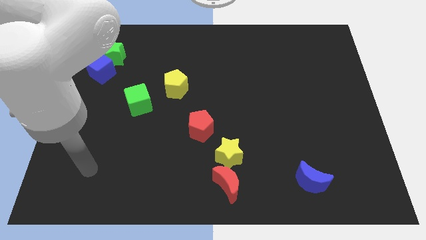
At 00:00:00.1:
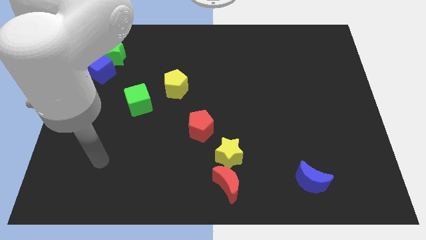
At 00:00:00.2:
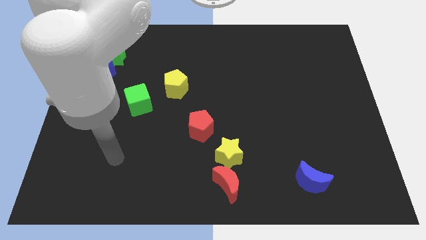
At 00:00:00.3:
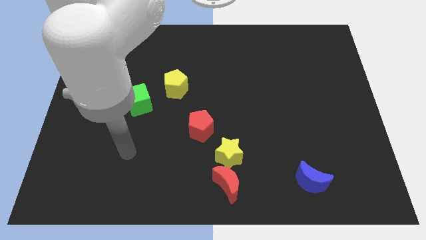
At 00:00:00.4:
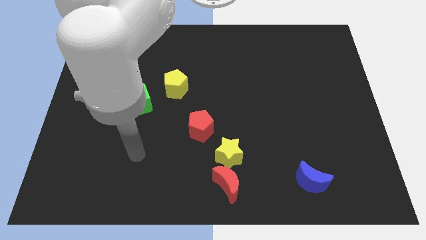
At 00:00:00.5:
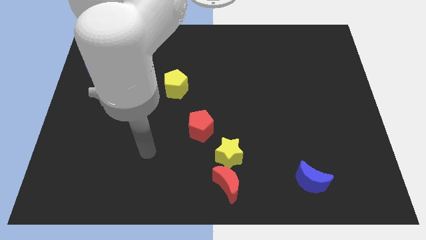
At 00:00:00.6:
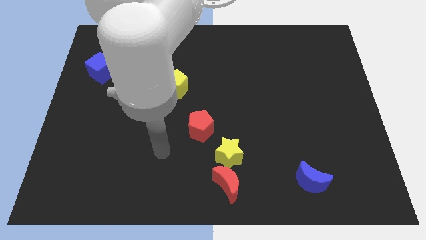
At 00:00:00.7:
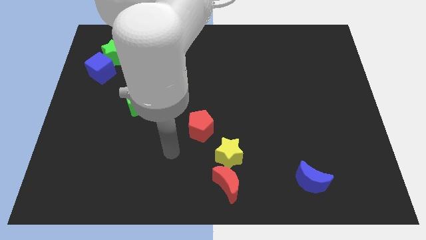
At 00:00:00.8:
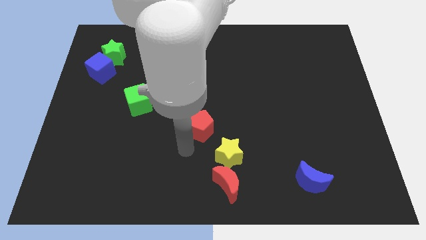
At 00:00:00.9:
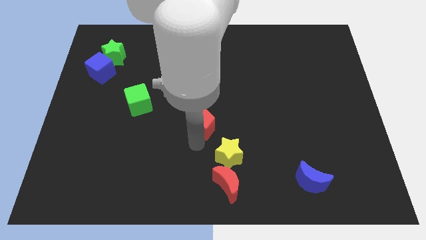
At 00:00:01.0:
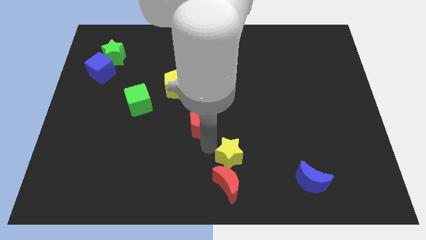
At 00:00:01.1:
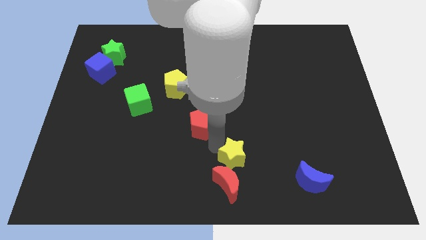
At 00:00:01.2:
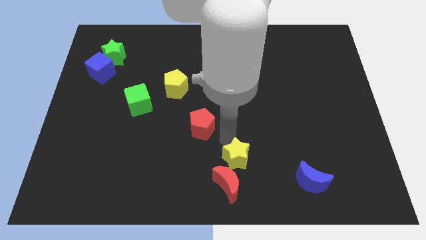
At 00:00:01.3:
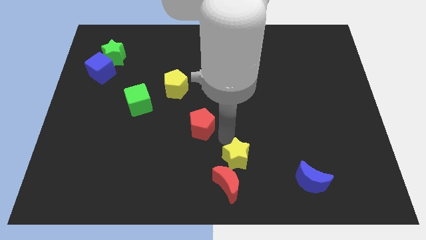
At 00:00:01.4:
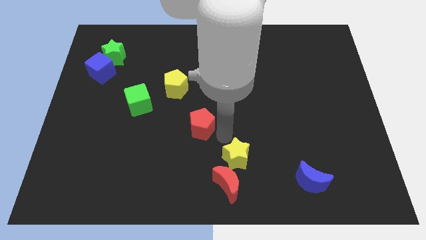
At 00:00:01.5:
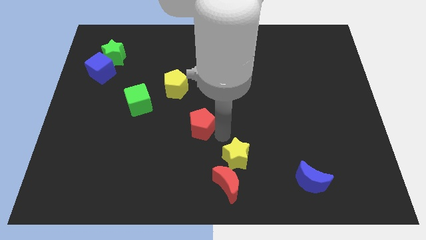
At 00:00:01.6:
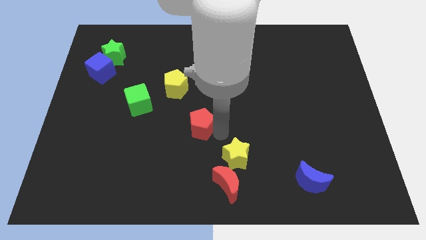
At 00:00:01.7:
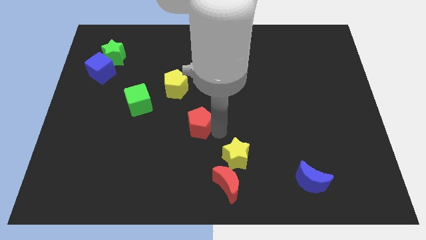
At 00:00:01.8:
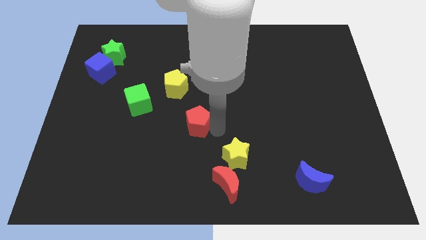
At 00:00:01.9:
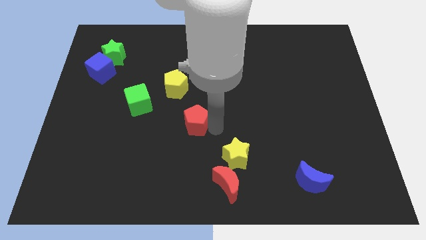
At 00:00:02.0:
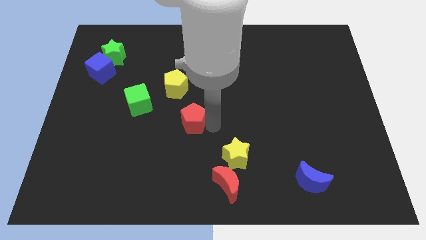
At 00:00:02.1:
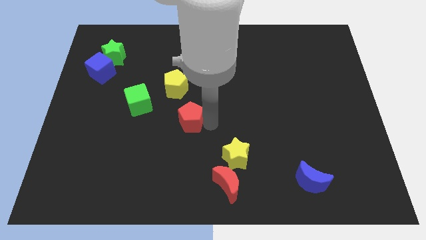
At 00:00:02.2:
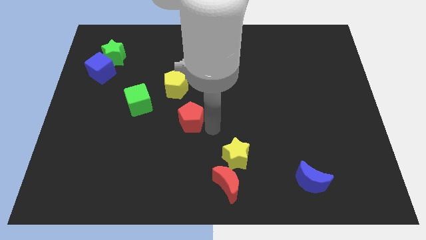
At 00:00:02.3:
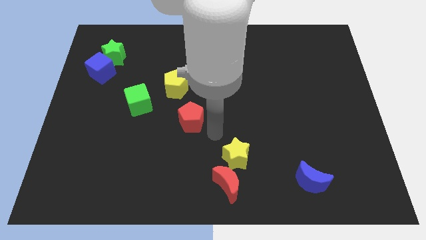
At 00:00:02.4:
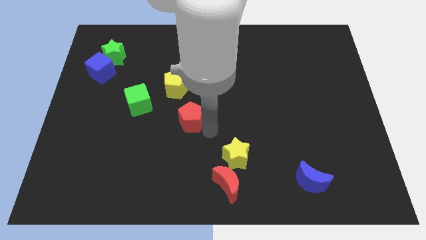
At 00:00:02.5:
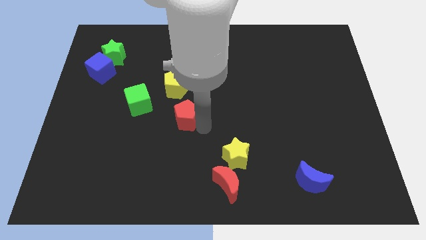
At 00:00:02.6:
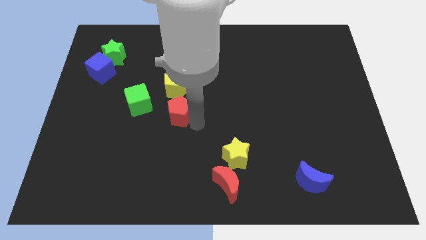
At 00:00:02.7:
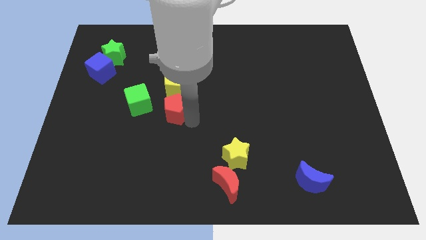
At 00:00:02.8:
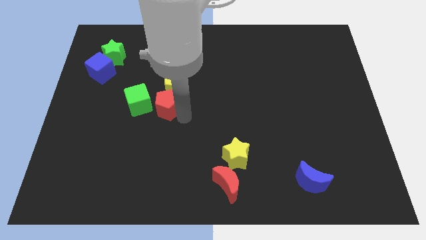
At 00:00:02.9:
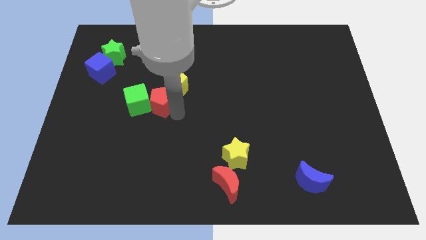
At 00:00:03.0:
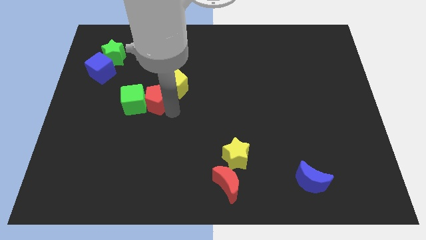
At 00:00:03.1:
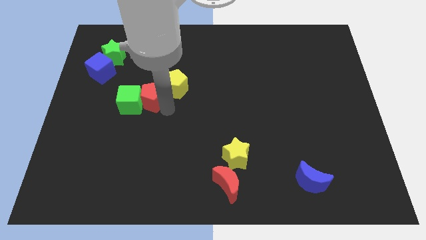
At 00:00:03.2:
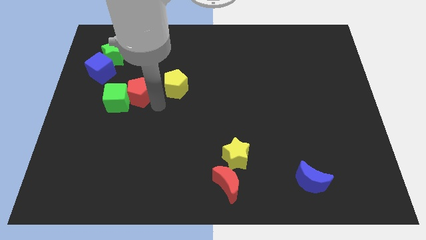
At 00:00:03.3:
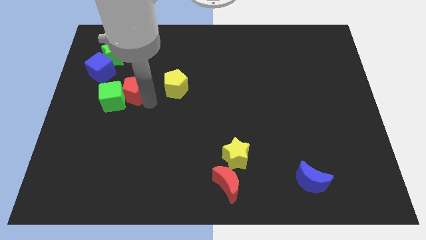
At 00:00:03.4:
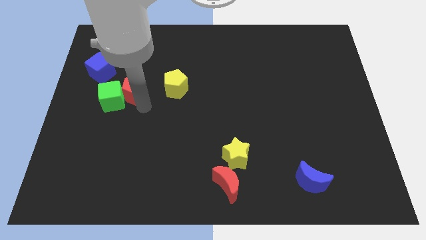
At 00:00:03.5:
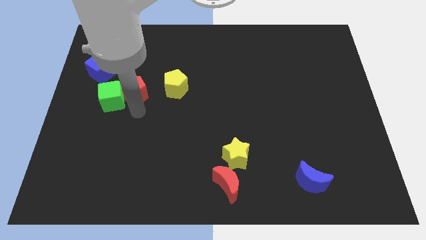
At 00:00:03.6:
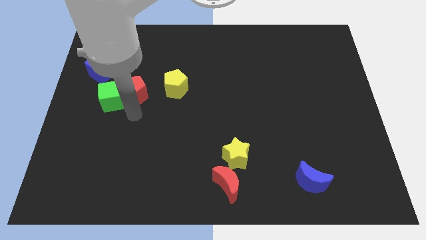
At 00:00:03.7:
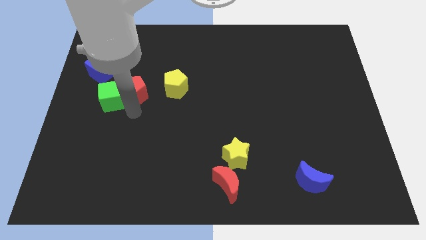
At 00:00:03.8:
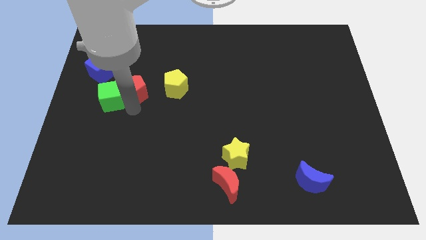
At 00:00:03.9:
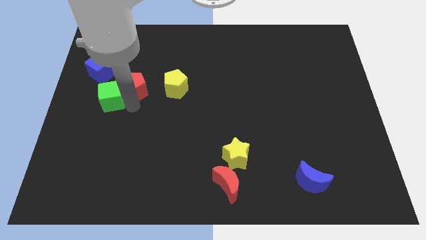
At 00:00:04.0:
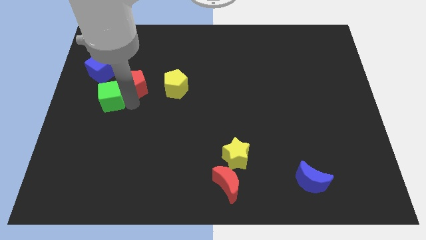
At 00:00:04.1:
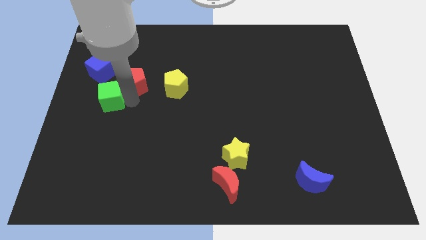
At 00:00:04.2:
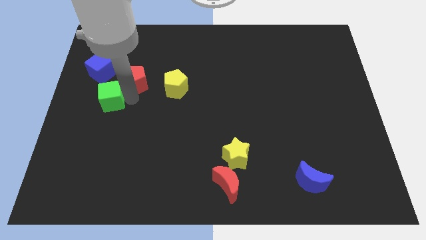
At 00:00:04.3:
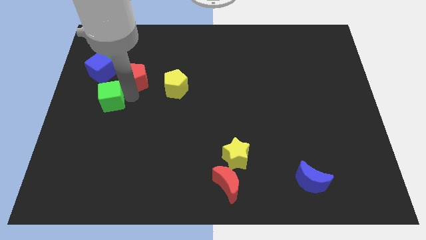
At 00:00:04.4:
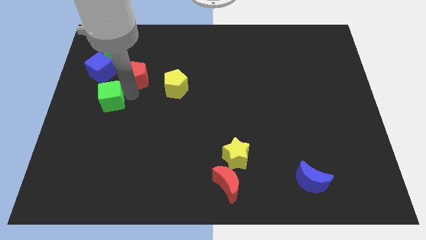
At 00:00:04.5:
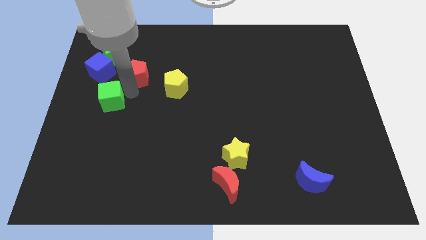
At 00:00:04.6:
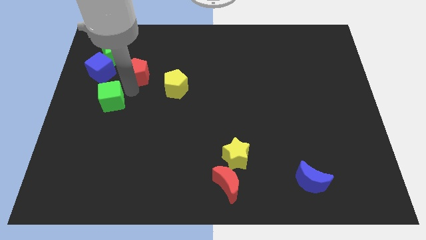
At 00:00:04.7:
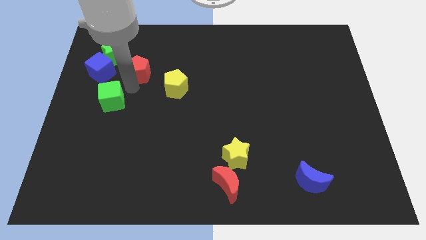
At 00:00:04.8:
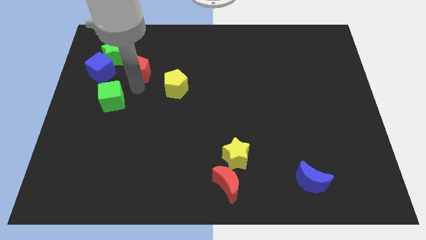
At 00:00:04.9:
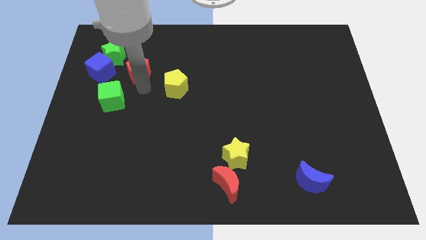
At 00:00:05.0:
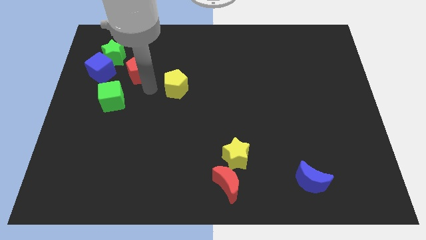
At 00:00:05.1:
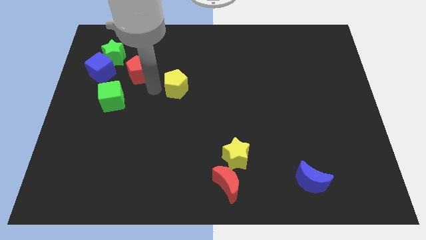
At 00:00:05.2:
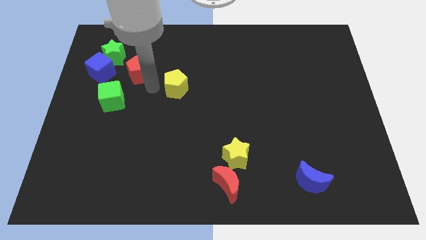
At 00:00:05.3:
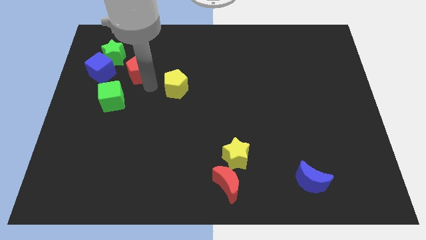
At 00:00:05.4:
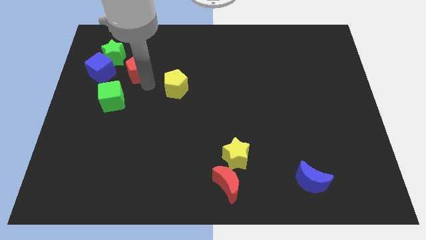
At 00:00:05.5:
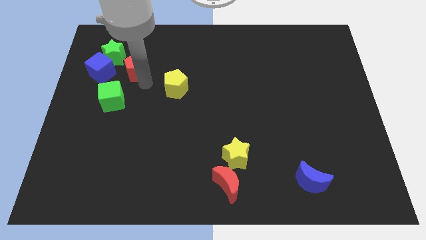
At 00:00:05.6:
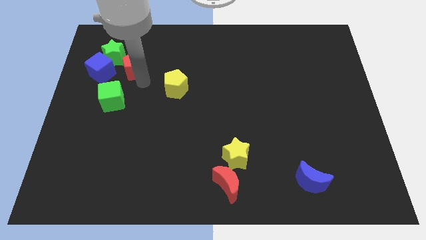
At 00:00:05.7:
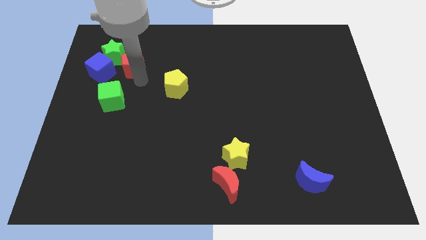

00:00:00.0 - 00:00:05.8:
slide the red pentagon diagonally up and to the right of the blue cube

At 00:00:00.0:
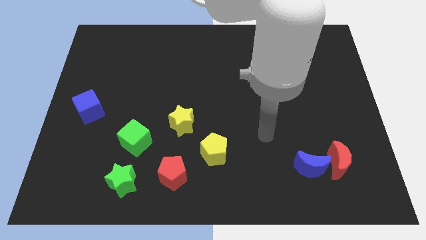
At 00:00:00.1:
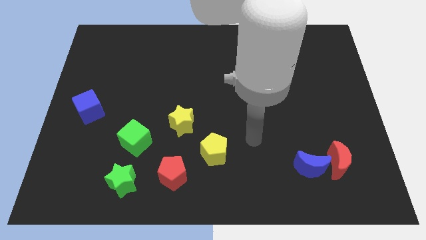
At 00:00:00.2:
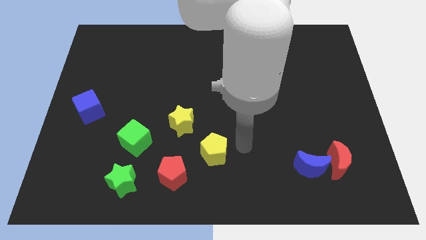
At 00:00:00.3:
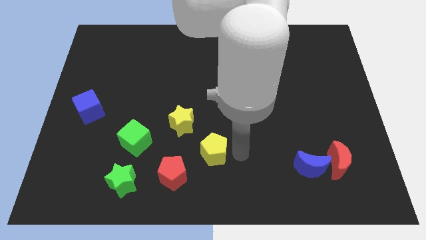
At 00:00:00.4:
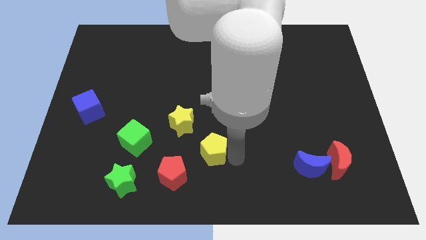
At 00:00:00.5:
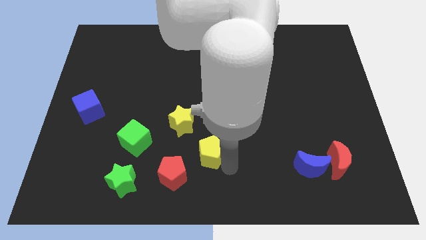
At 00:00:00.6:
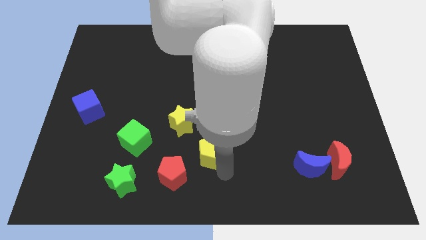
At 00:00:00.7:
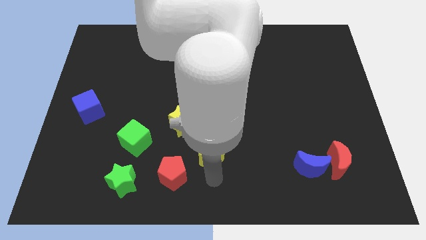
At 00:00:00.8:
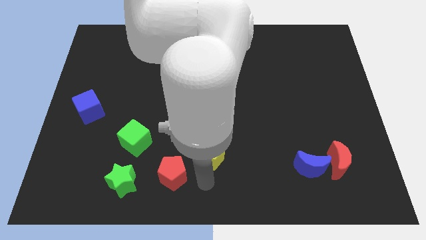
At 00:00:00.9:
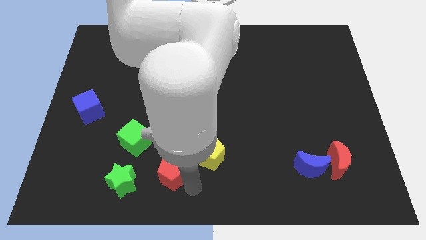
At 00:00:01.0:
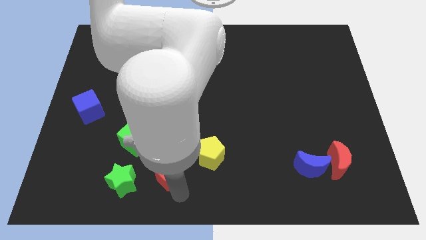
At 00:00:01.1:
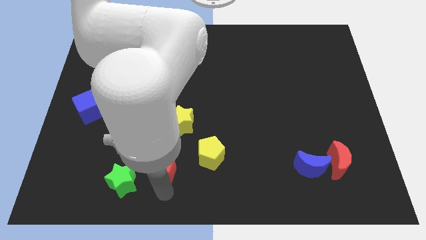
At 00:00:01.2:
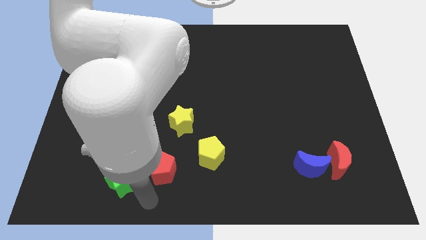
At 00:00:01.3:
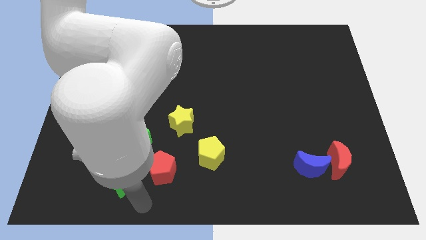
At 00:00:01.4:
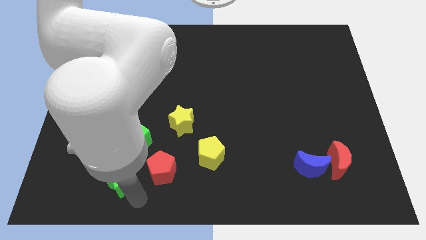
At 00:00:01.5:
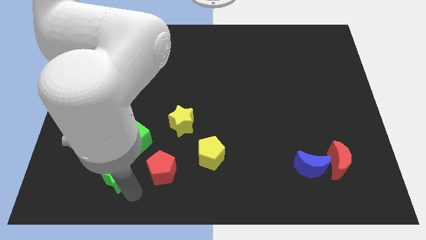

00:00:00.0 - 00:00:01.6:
move the green star to the bottom left side of the green cube
